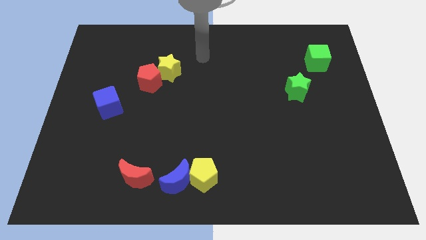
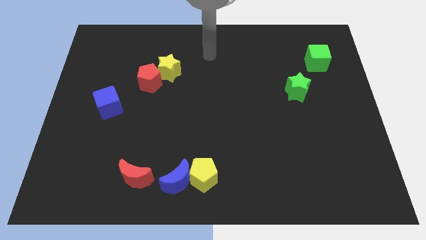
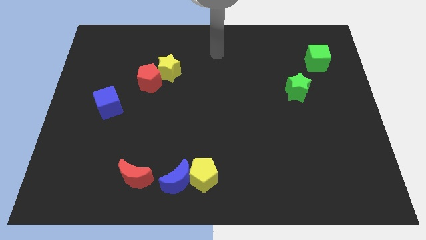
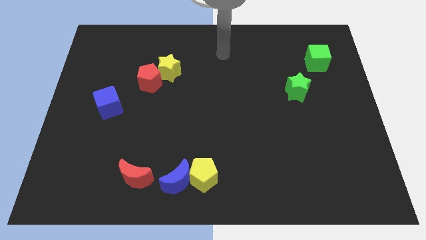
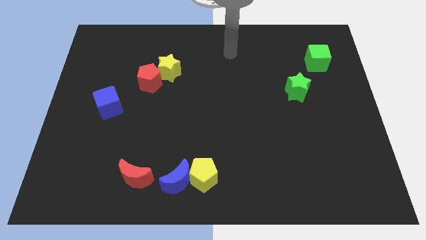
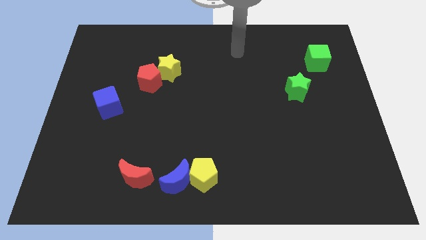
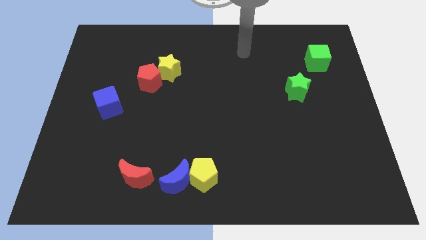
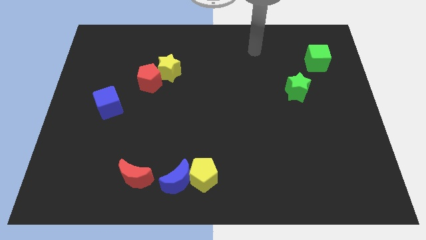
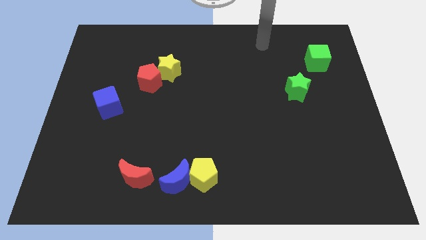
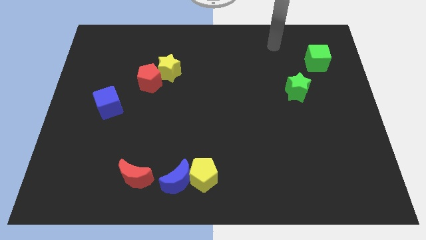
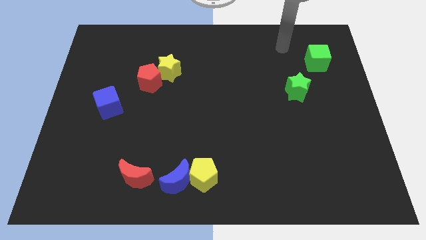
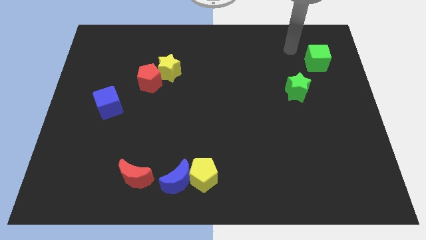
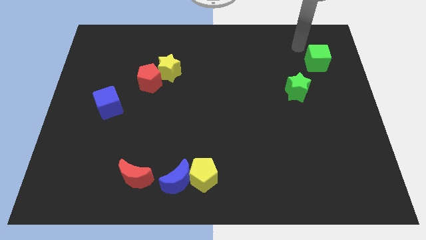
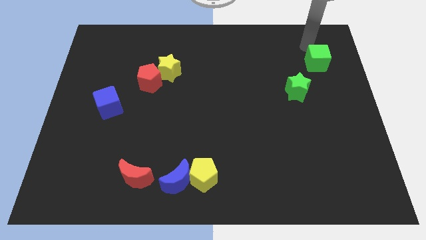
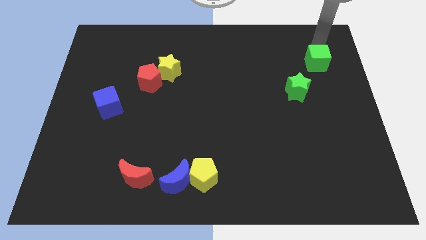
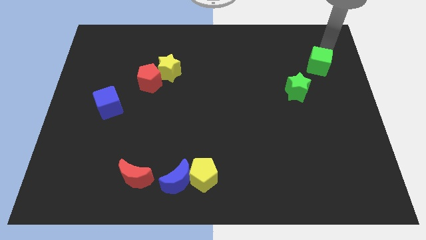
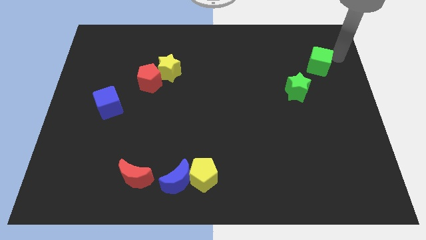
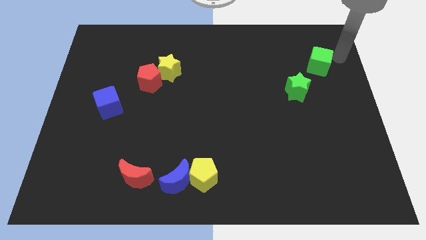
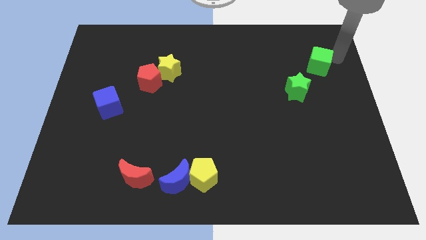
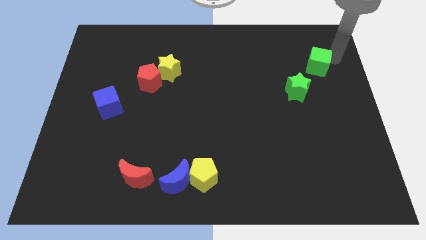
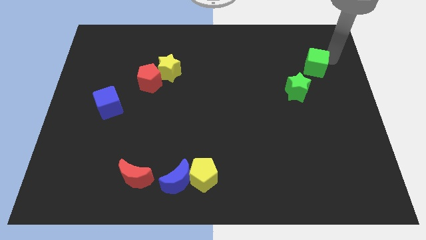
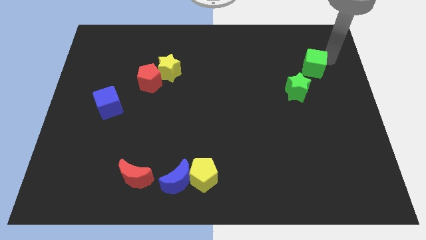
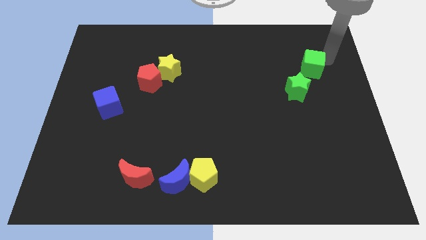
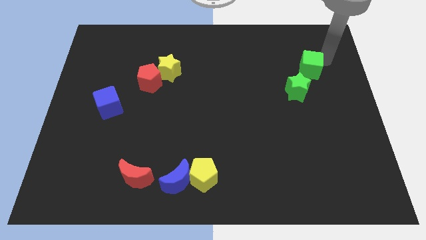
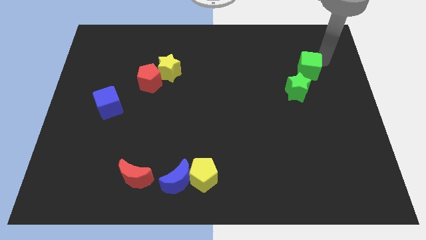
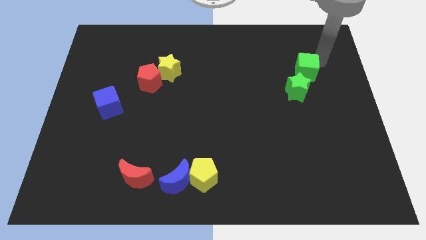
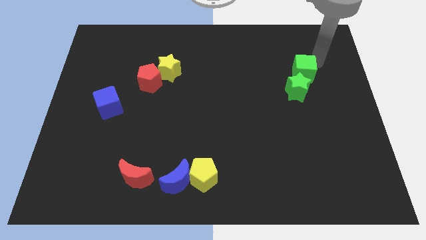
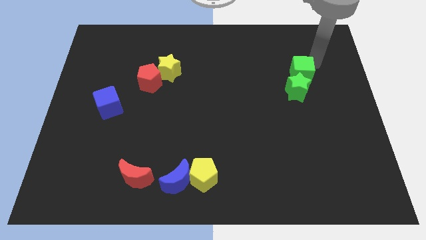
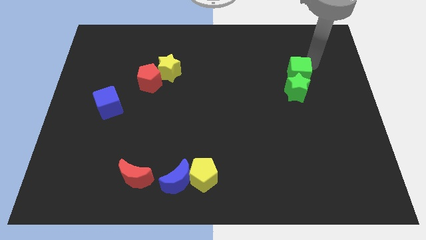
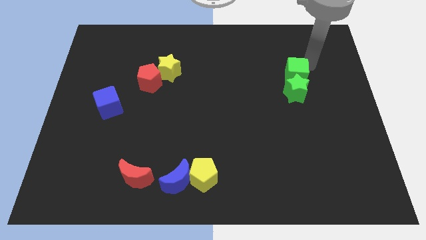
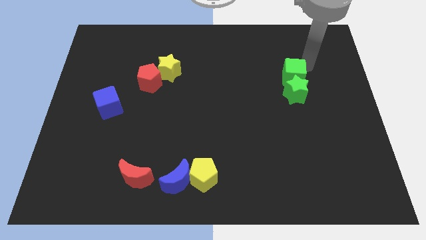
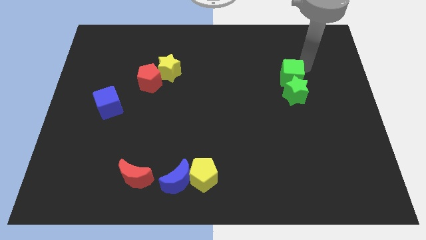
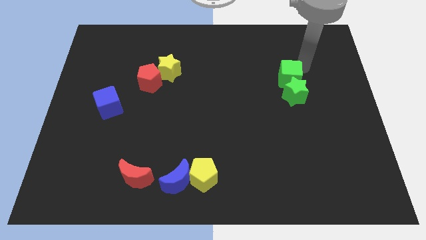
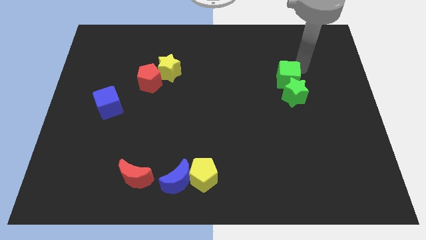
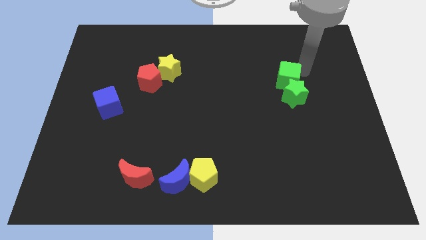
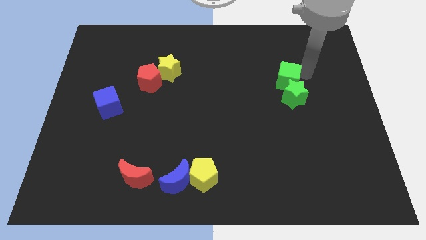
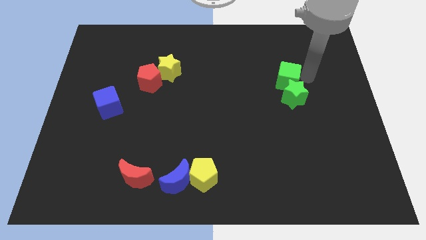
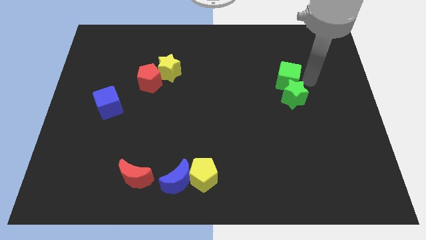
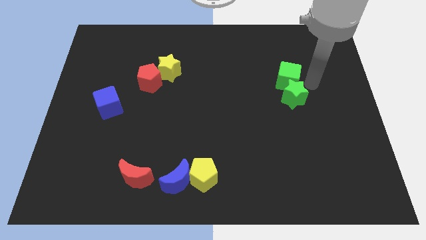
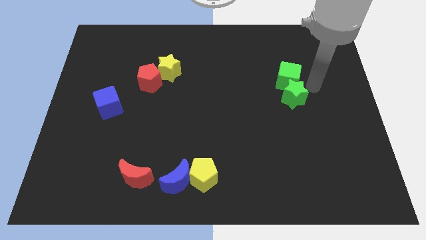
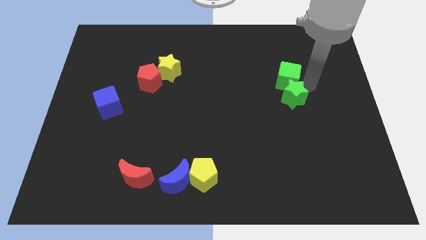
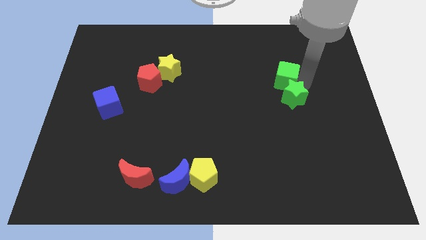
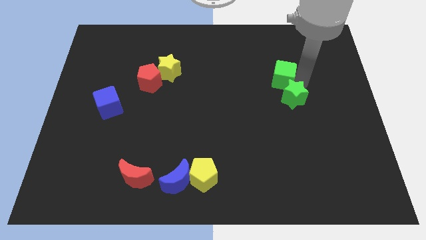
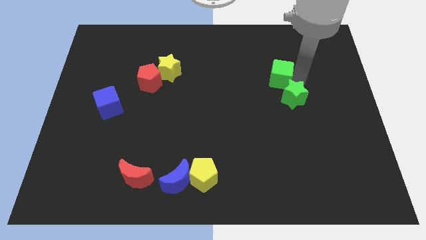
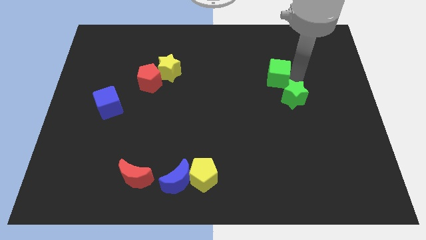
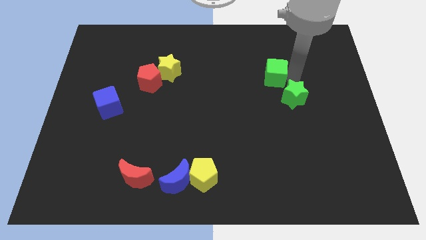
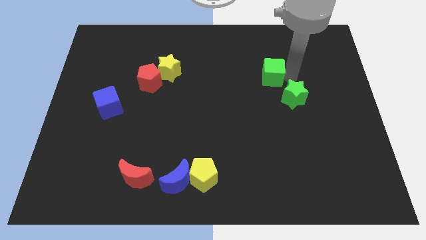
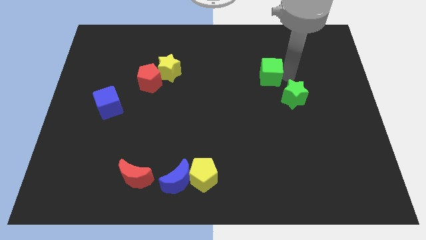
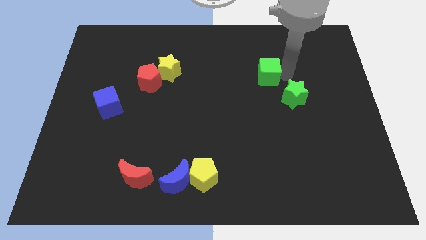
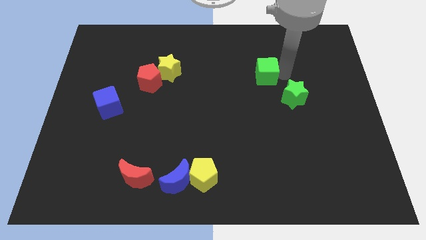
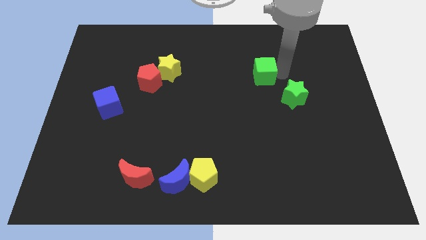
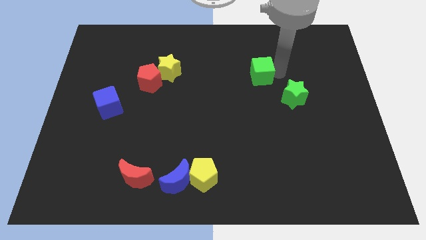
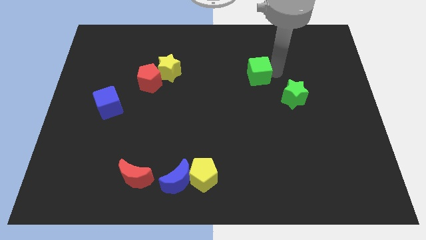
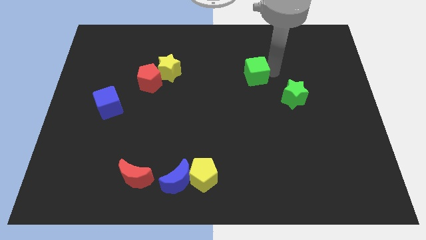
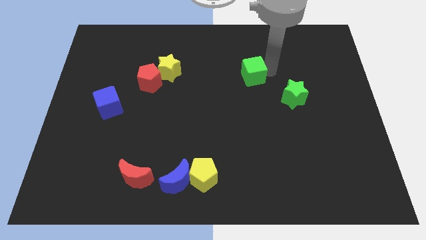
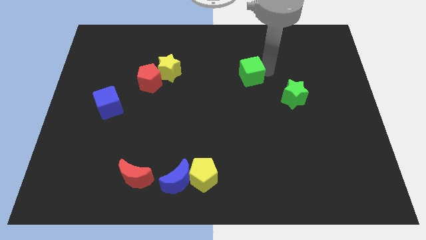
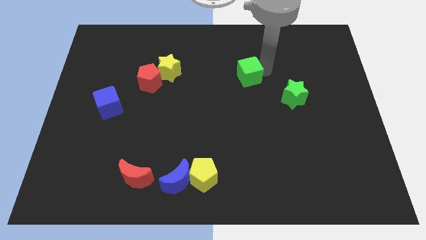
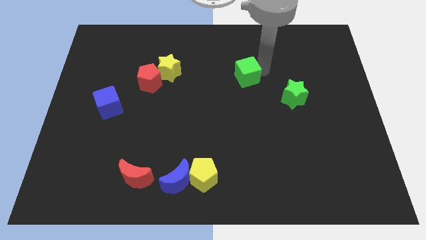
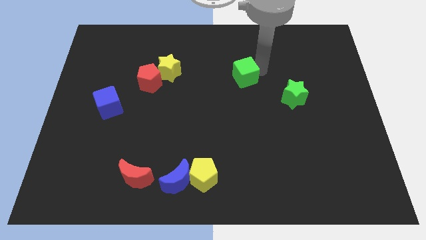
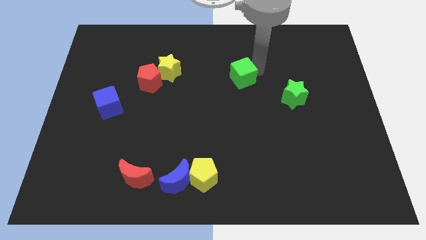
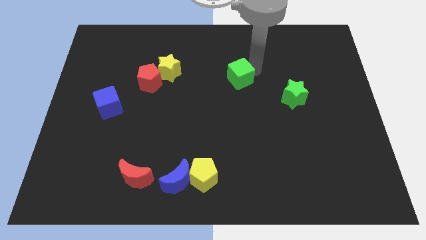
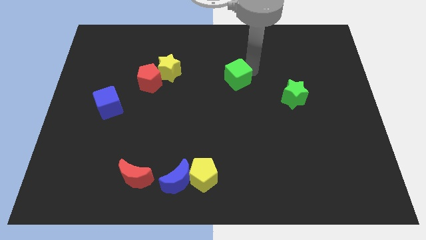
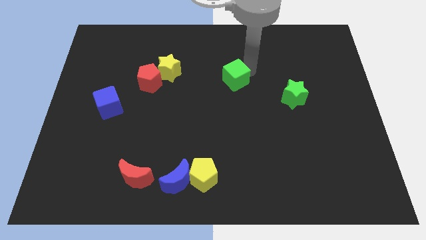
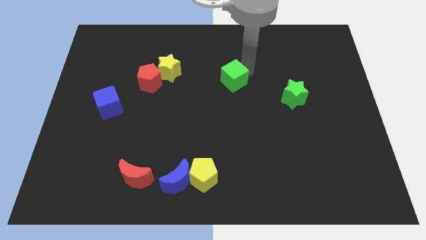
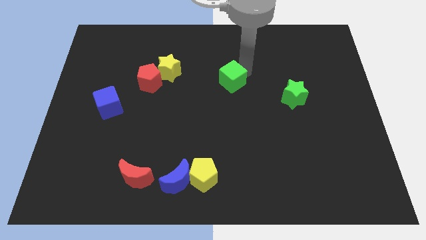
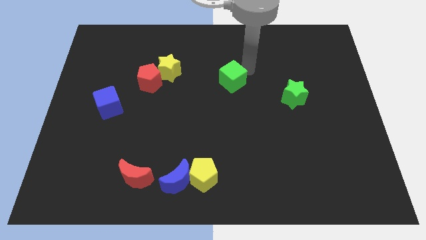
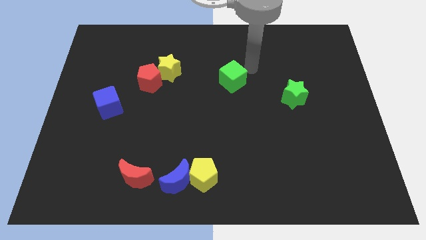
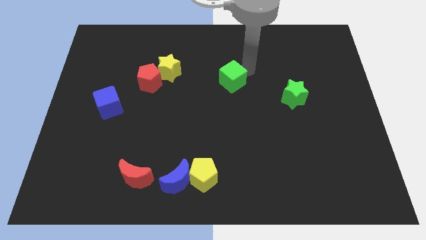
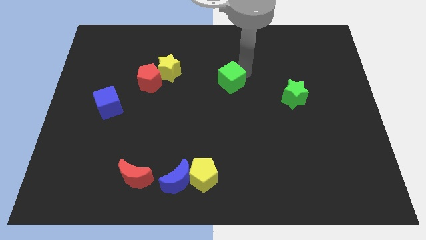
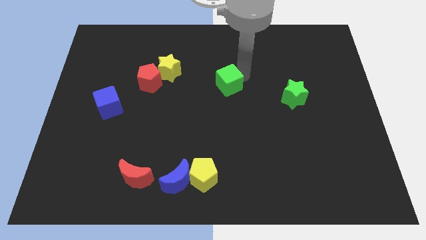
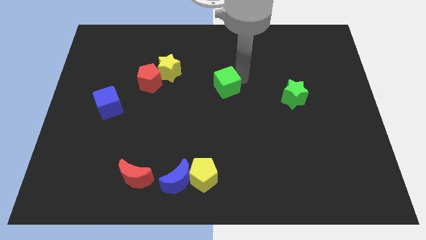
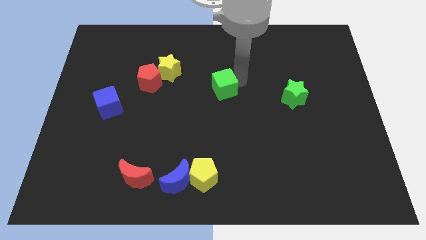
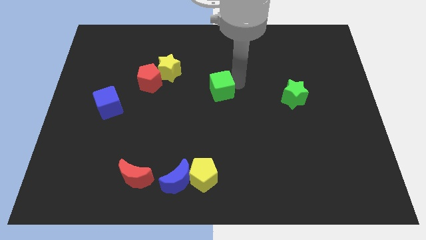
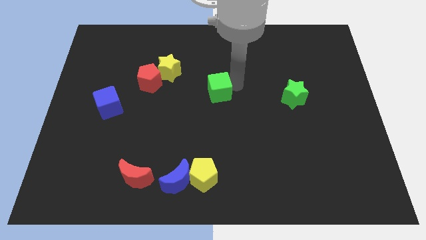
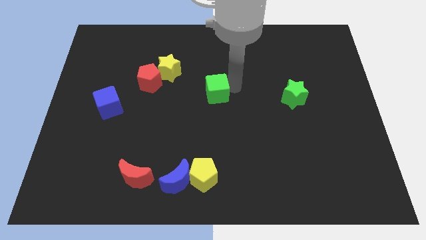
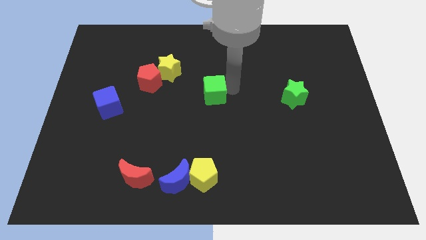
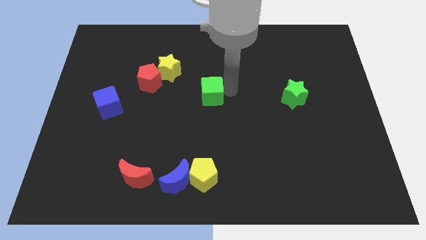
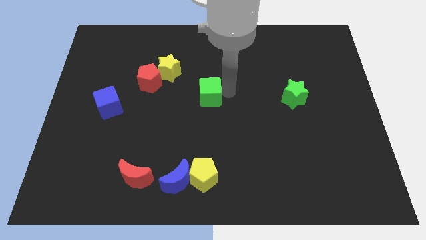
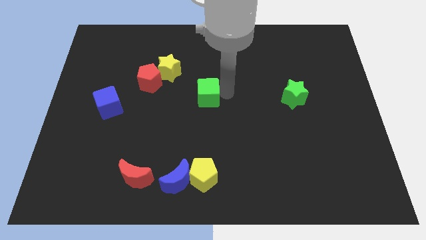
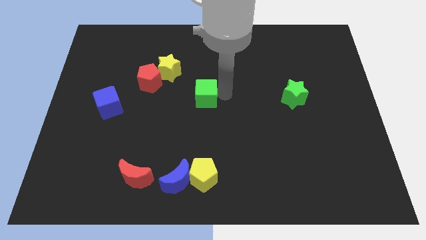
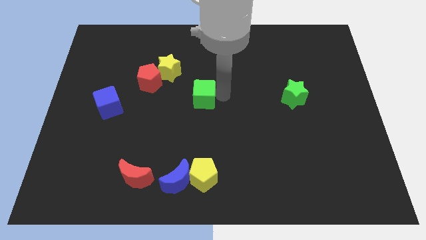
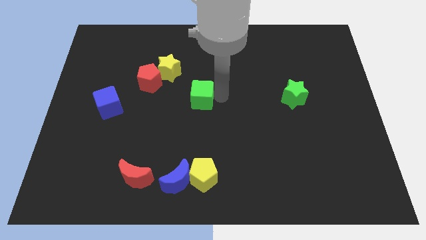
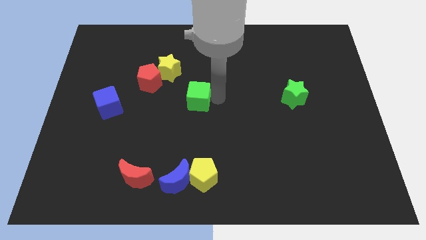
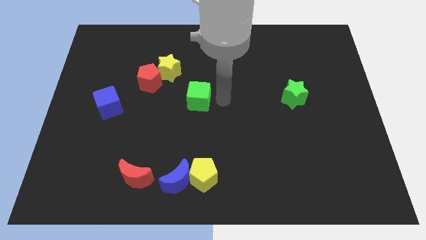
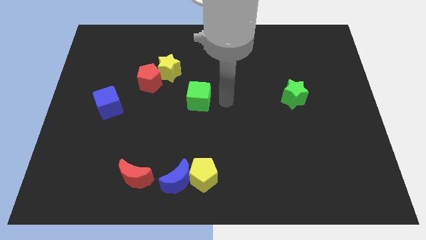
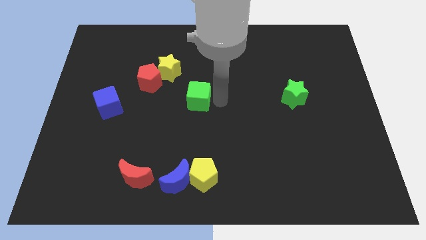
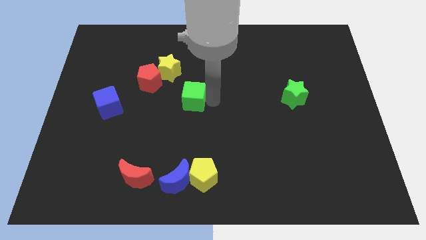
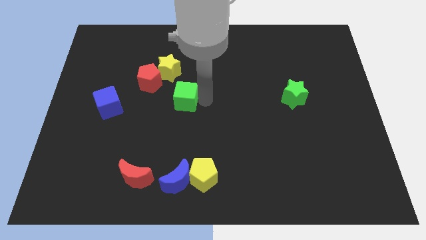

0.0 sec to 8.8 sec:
push the green cube to the bottom right side of the red pentagon
